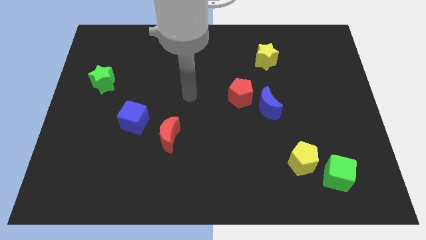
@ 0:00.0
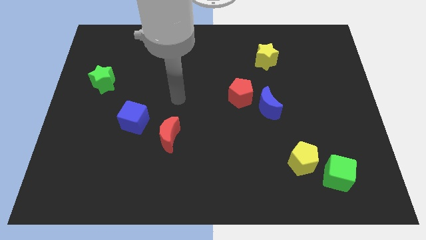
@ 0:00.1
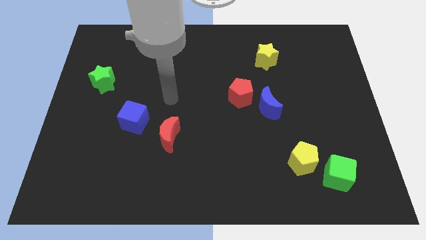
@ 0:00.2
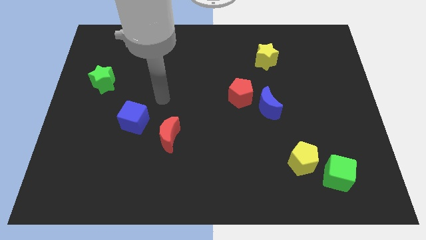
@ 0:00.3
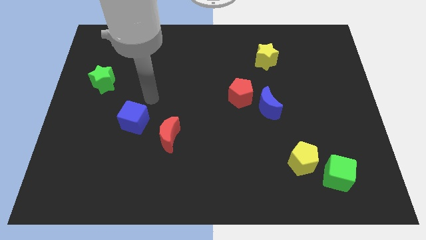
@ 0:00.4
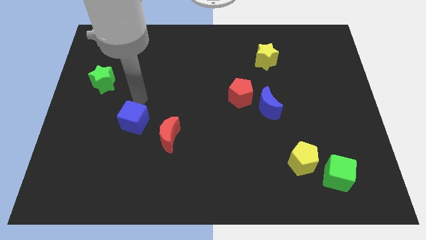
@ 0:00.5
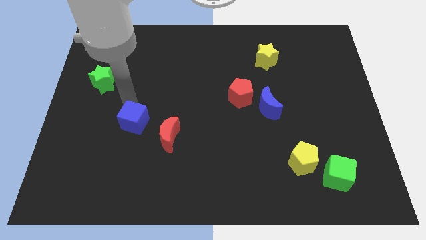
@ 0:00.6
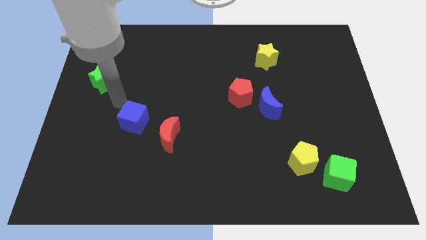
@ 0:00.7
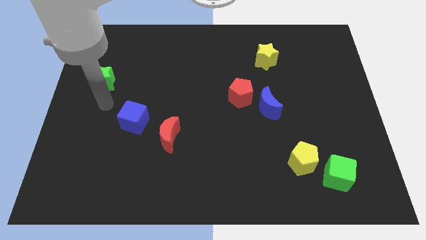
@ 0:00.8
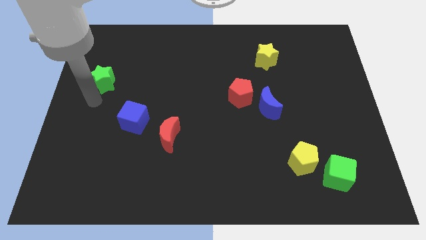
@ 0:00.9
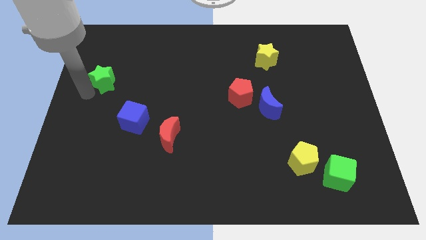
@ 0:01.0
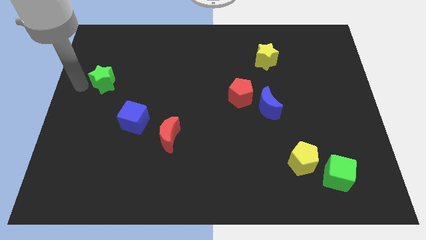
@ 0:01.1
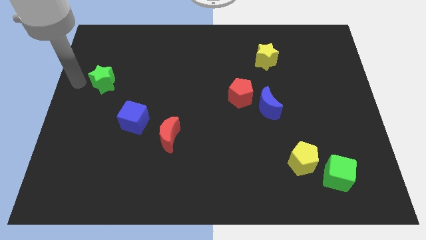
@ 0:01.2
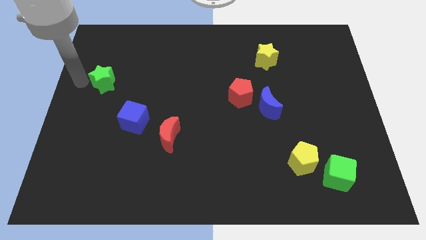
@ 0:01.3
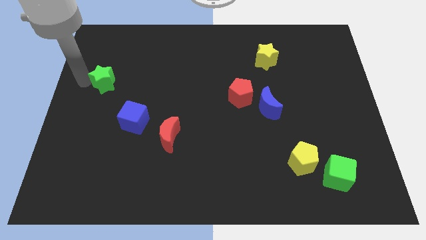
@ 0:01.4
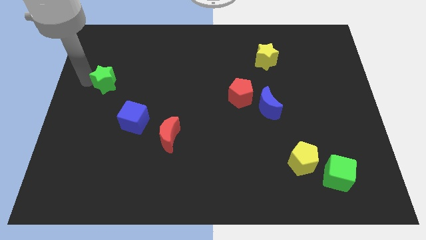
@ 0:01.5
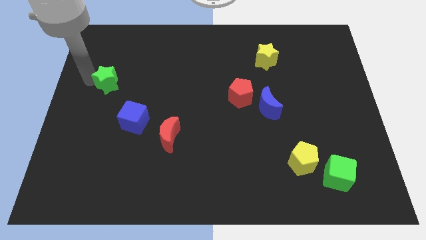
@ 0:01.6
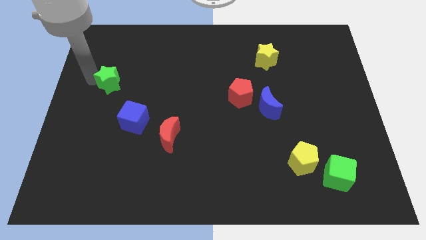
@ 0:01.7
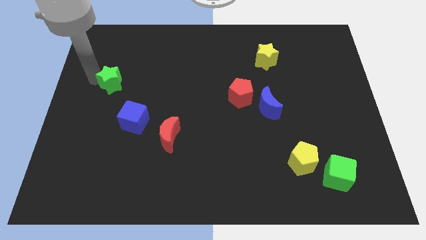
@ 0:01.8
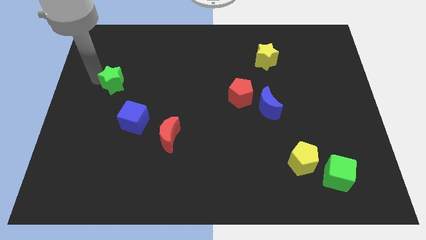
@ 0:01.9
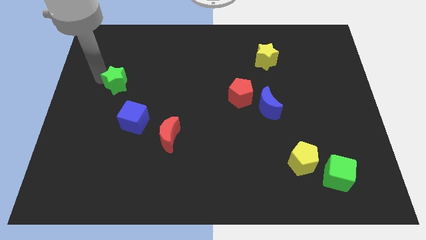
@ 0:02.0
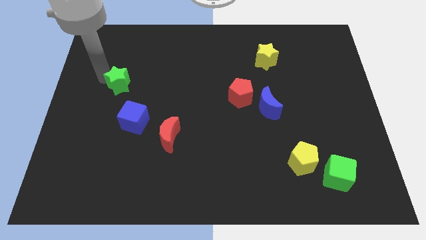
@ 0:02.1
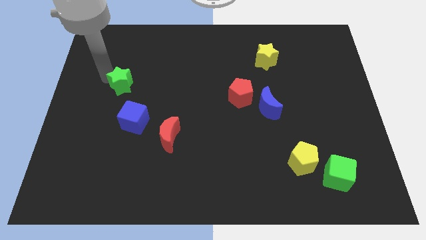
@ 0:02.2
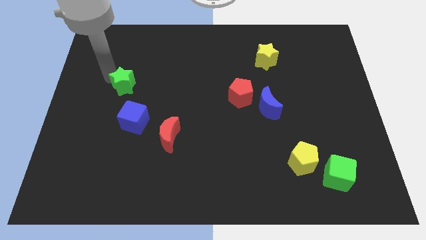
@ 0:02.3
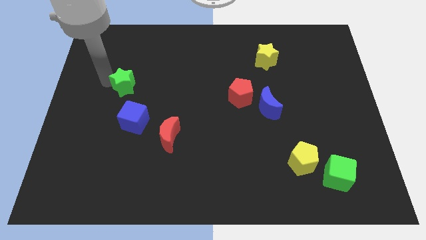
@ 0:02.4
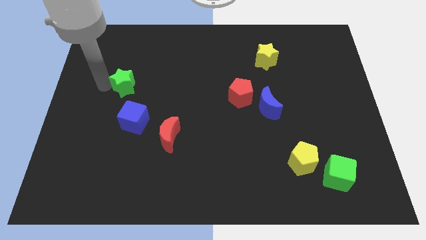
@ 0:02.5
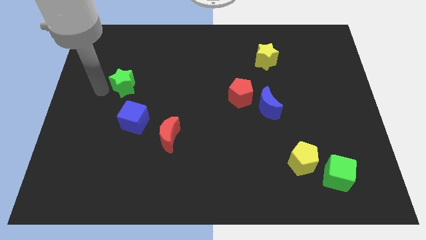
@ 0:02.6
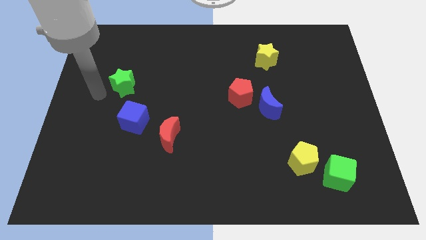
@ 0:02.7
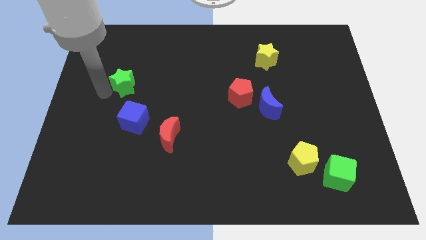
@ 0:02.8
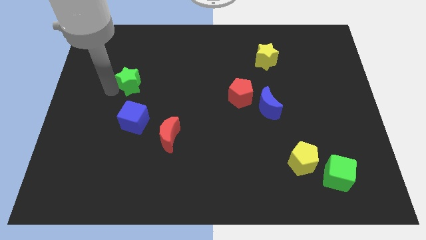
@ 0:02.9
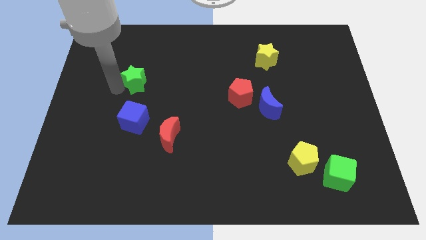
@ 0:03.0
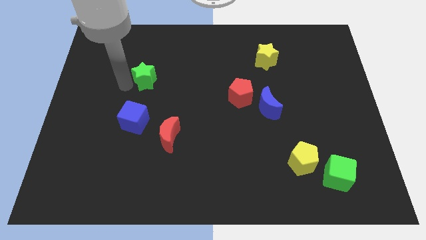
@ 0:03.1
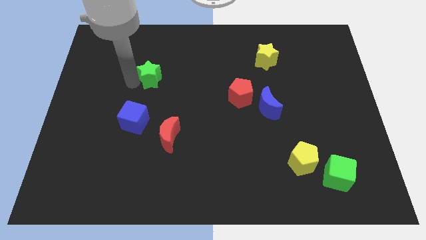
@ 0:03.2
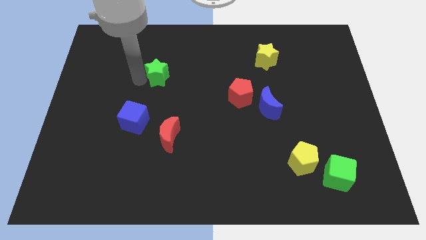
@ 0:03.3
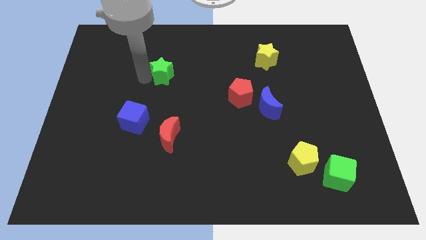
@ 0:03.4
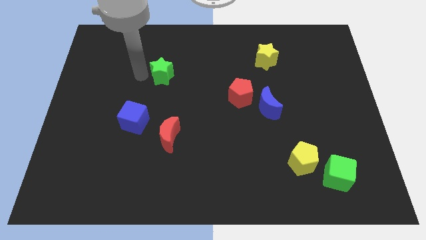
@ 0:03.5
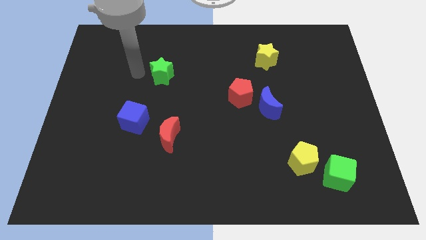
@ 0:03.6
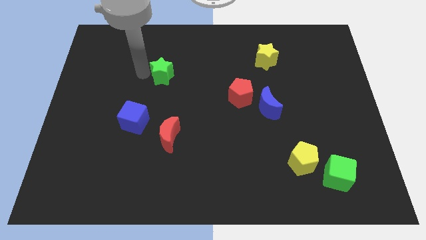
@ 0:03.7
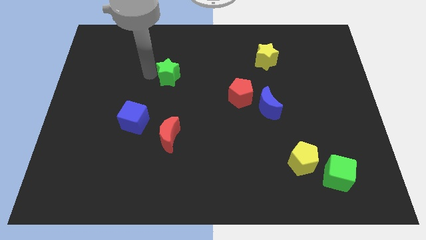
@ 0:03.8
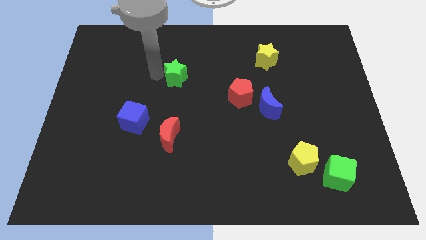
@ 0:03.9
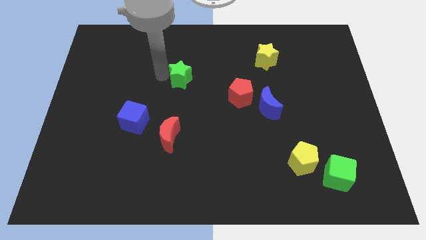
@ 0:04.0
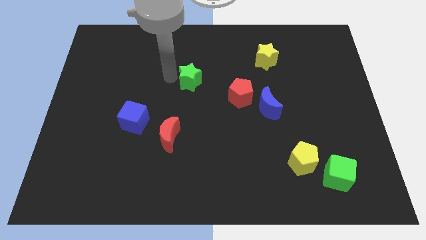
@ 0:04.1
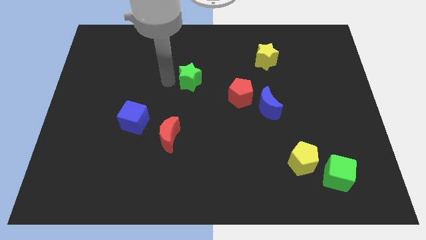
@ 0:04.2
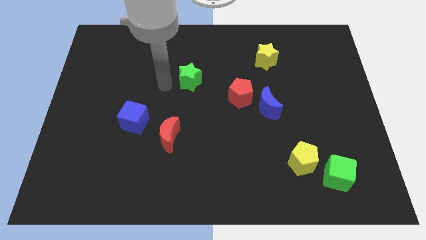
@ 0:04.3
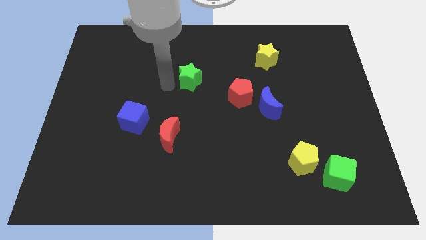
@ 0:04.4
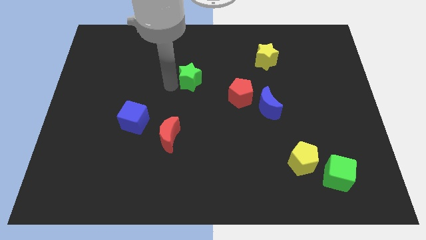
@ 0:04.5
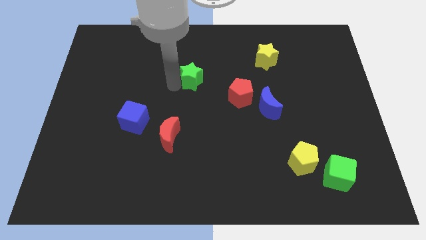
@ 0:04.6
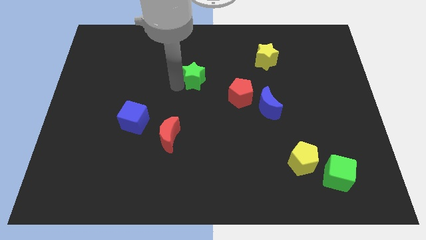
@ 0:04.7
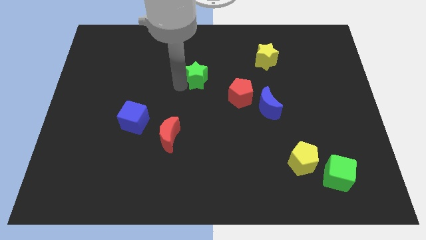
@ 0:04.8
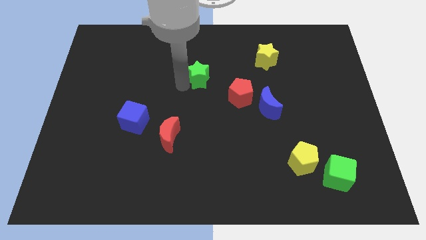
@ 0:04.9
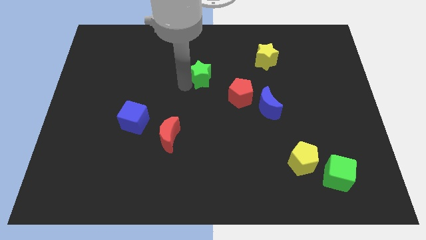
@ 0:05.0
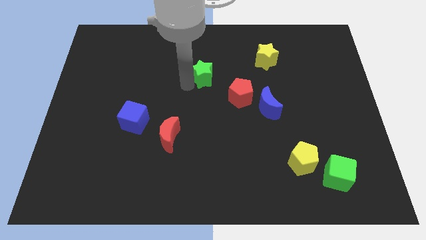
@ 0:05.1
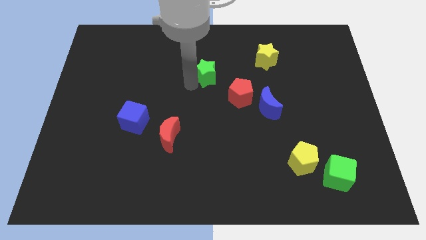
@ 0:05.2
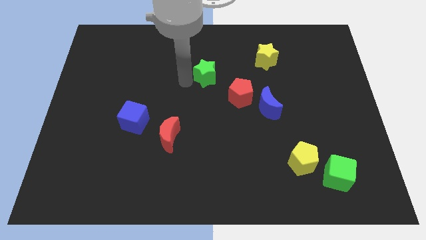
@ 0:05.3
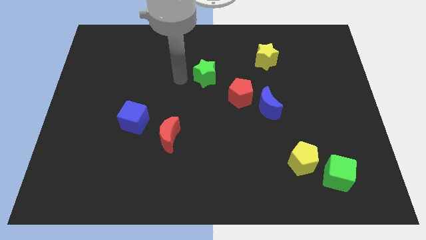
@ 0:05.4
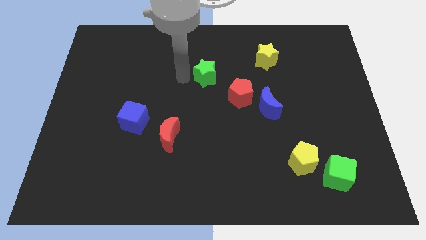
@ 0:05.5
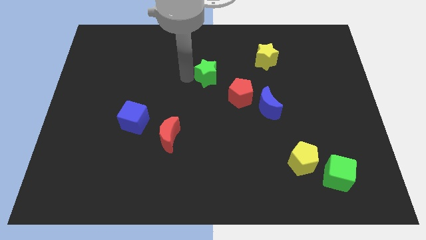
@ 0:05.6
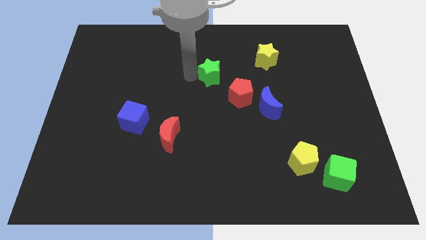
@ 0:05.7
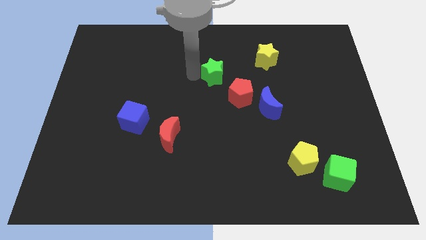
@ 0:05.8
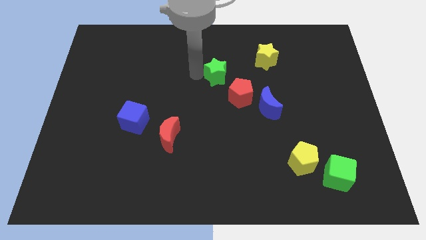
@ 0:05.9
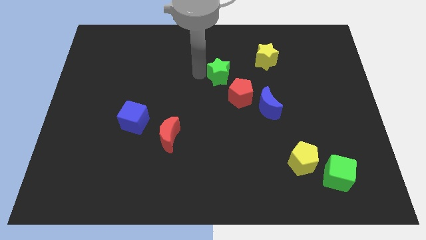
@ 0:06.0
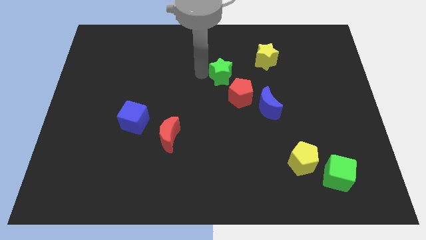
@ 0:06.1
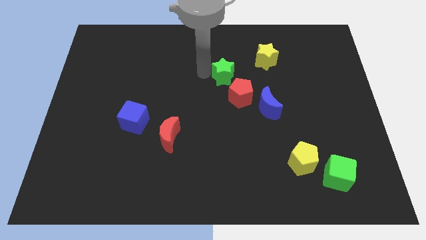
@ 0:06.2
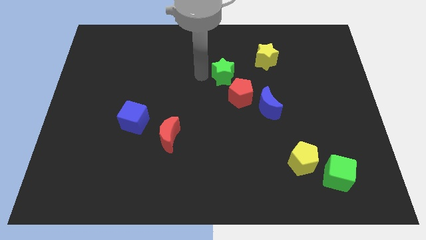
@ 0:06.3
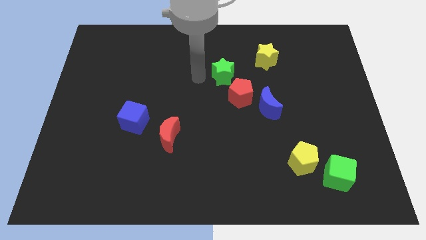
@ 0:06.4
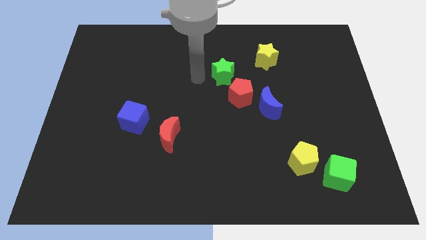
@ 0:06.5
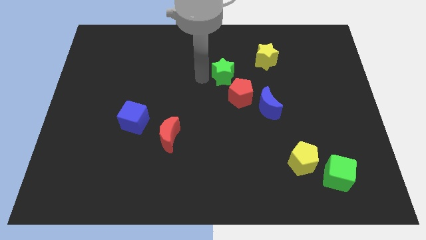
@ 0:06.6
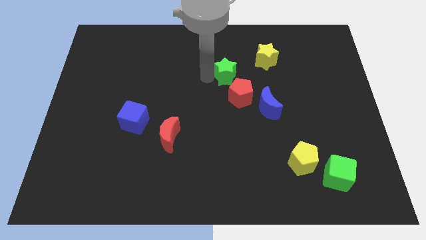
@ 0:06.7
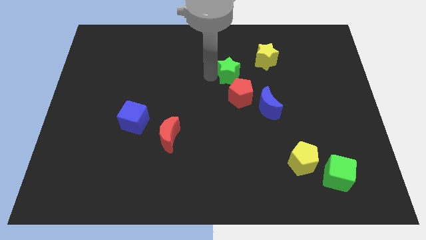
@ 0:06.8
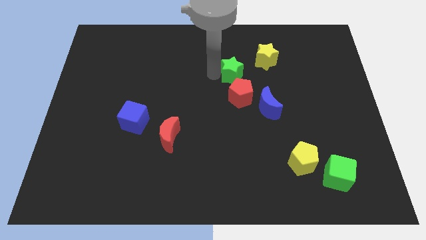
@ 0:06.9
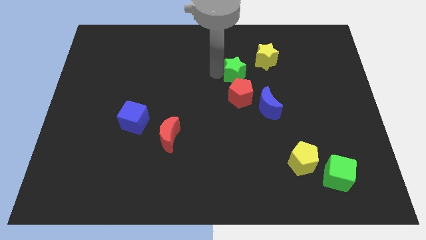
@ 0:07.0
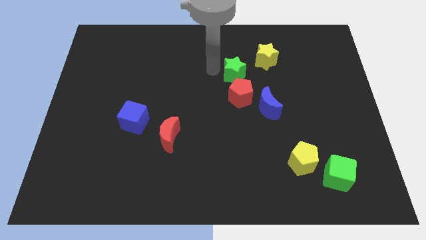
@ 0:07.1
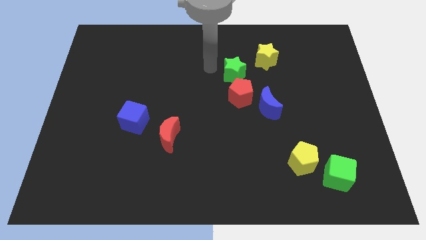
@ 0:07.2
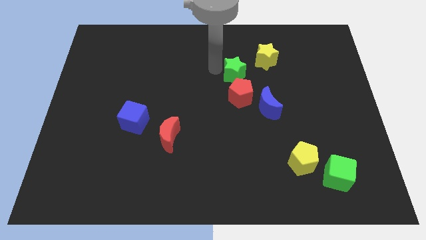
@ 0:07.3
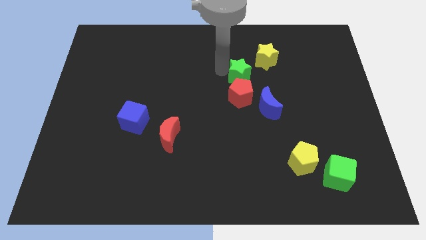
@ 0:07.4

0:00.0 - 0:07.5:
push the green star to the top right side of the red pentagon

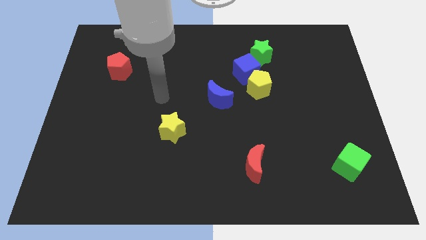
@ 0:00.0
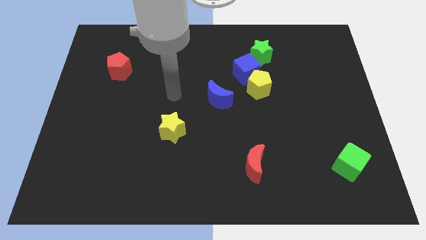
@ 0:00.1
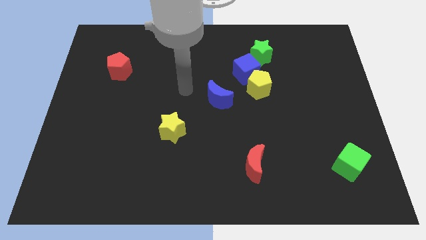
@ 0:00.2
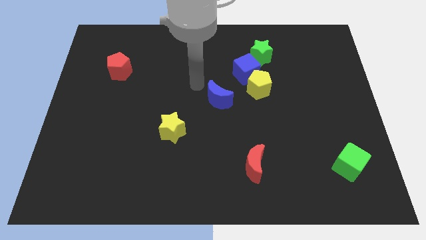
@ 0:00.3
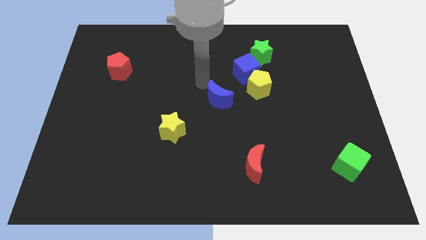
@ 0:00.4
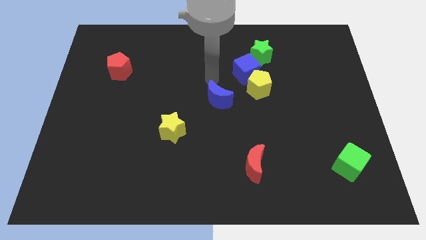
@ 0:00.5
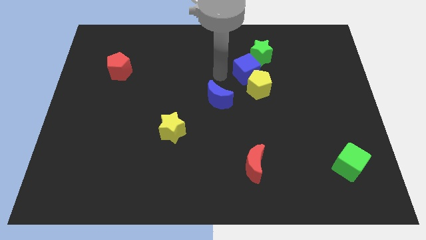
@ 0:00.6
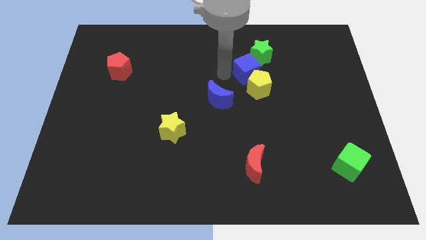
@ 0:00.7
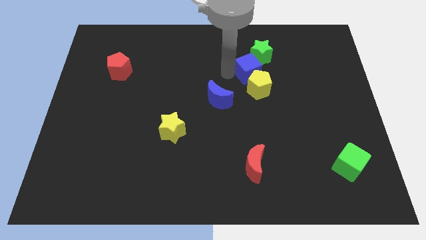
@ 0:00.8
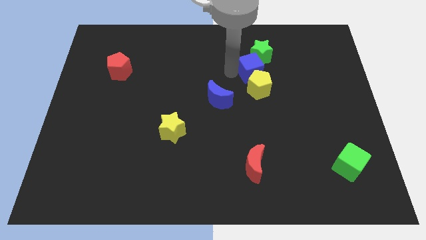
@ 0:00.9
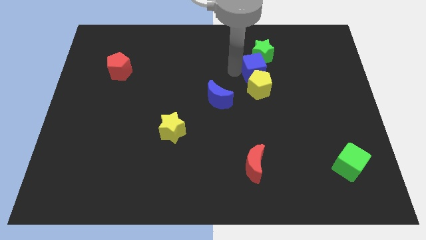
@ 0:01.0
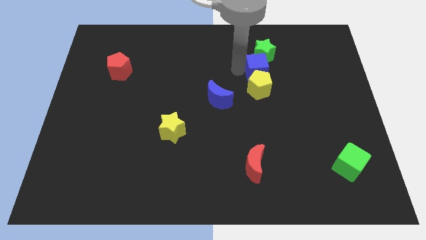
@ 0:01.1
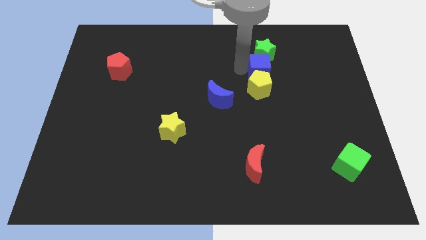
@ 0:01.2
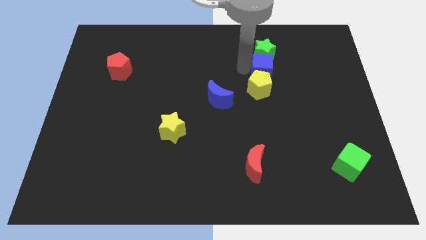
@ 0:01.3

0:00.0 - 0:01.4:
move the blue cube to the bottom right of the green star
